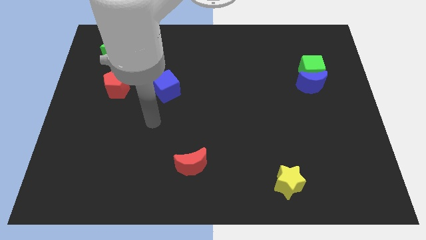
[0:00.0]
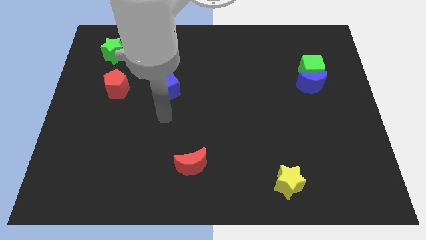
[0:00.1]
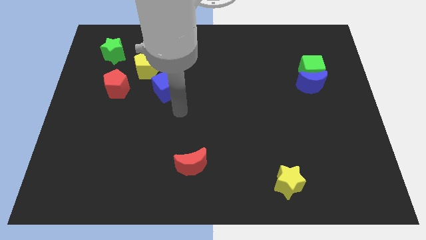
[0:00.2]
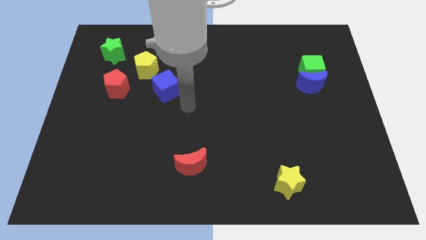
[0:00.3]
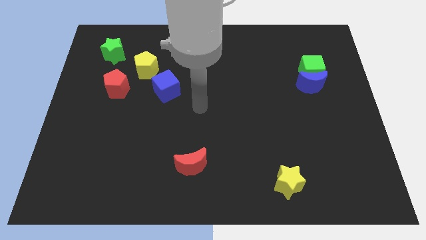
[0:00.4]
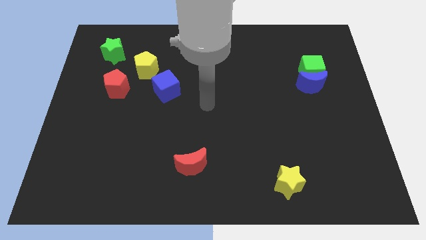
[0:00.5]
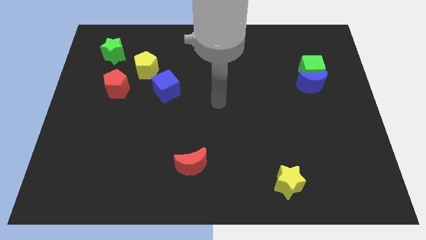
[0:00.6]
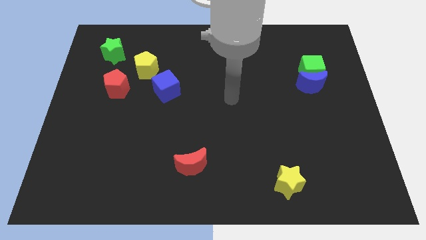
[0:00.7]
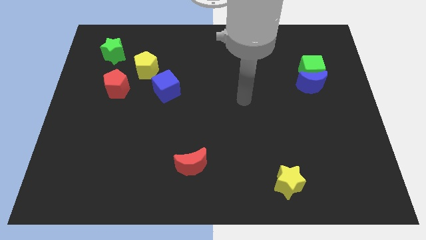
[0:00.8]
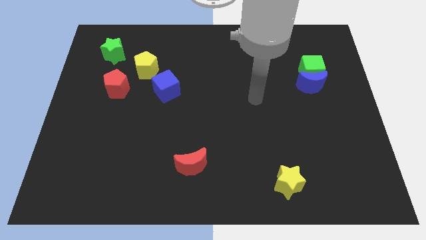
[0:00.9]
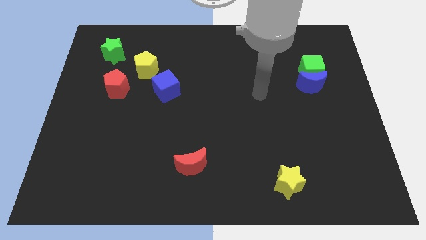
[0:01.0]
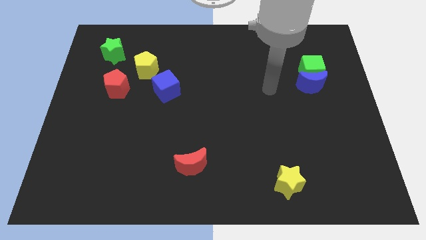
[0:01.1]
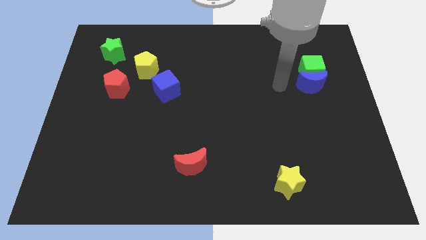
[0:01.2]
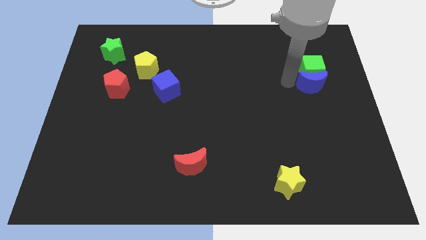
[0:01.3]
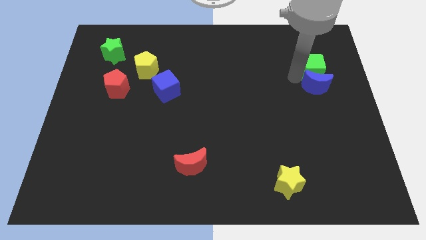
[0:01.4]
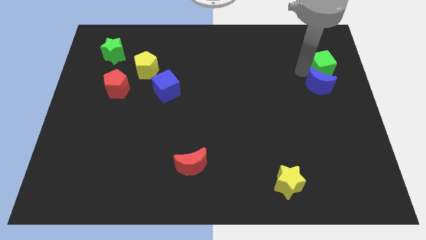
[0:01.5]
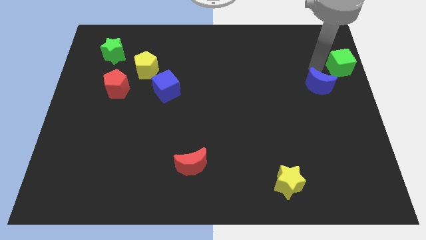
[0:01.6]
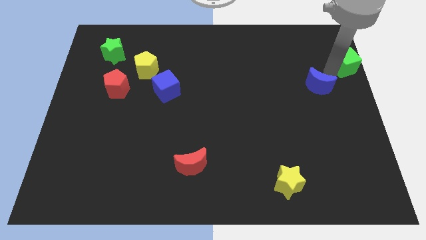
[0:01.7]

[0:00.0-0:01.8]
move the blue moon away from the green cube

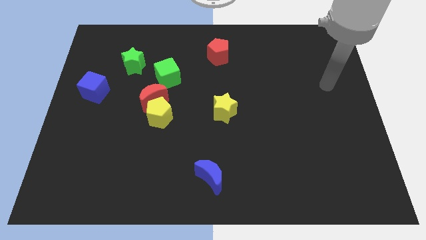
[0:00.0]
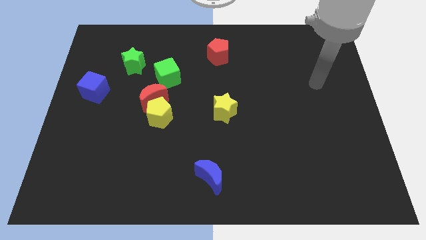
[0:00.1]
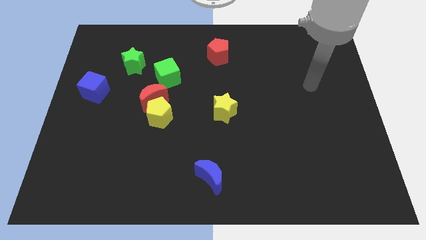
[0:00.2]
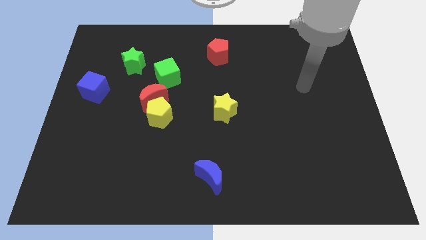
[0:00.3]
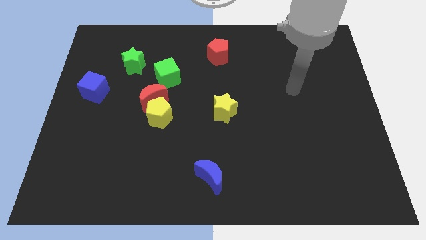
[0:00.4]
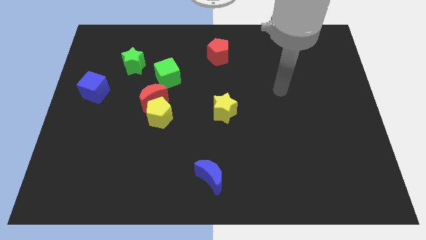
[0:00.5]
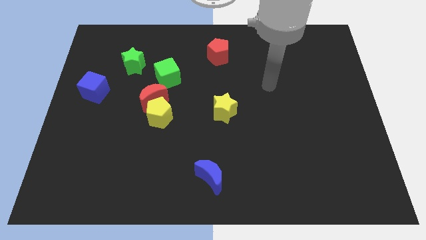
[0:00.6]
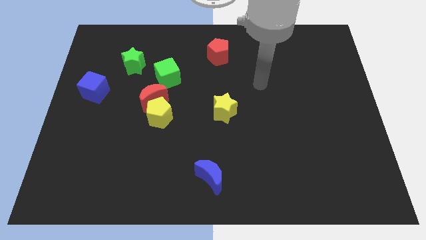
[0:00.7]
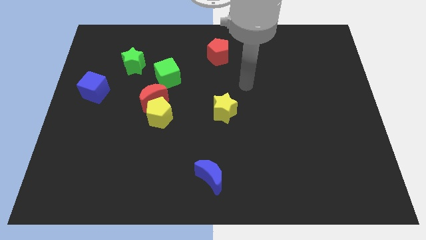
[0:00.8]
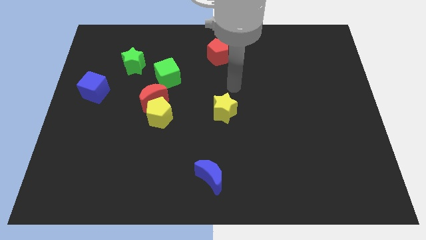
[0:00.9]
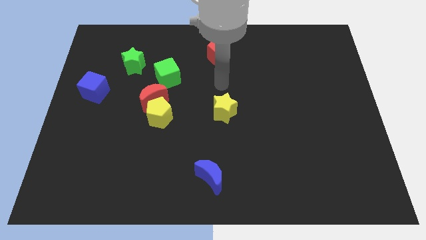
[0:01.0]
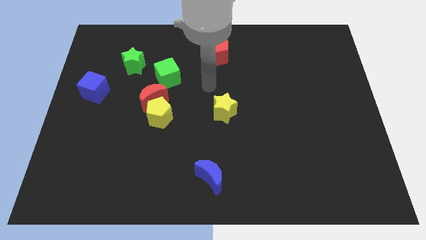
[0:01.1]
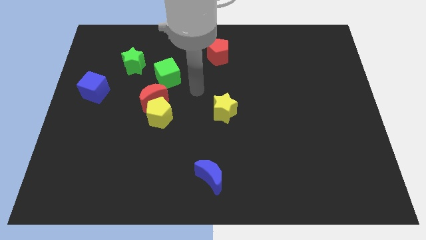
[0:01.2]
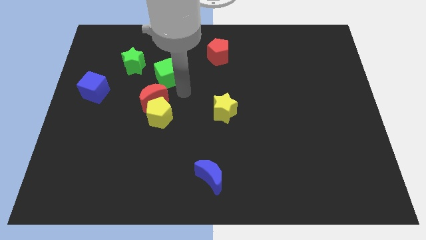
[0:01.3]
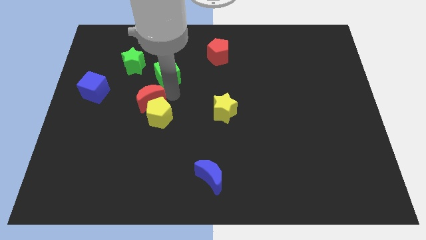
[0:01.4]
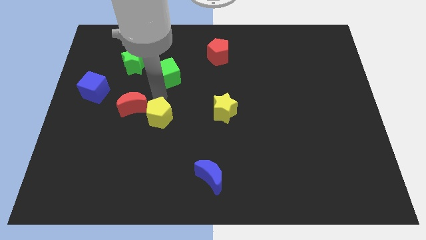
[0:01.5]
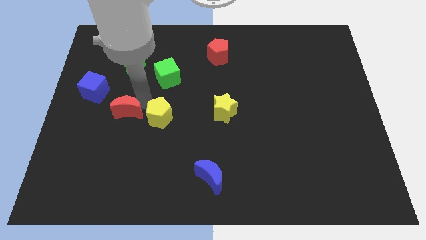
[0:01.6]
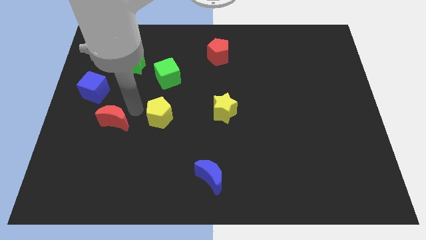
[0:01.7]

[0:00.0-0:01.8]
move the yellow pentagon away from the red moon

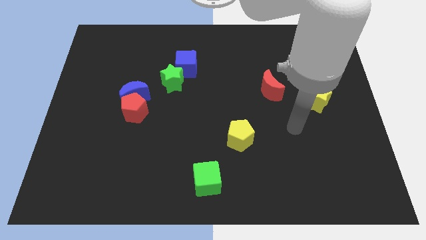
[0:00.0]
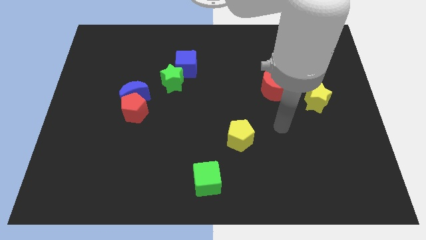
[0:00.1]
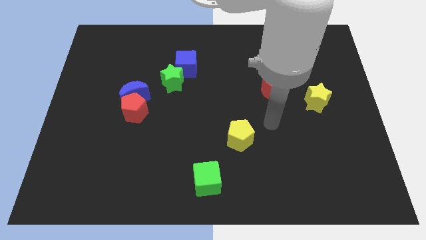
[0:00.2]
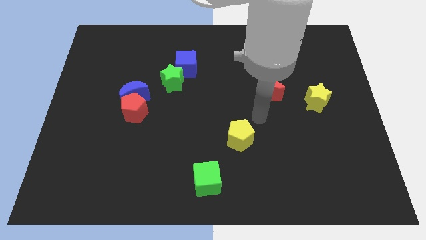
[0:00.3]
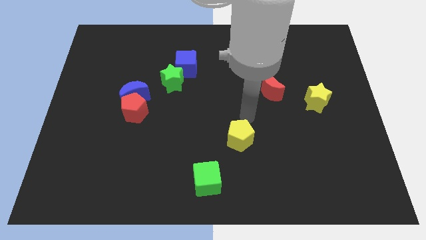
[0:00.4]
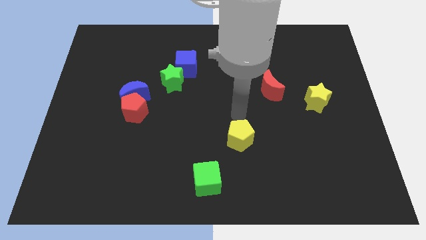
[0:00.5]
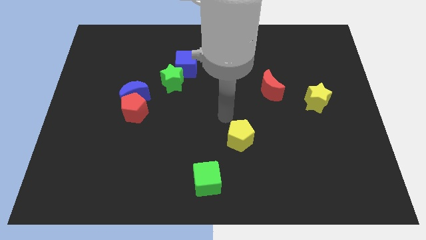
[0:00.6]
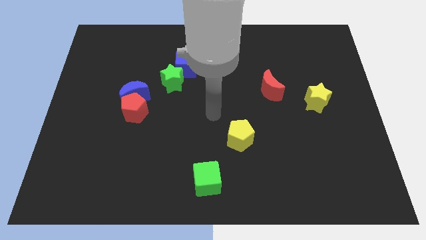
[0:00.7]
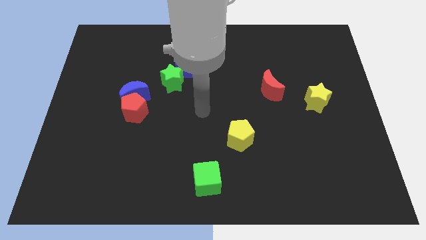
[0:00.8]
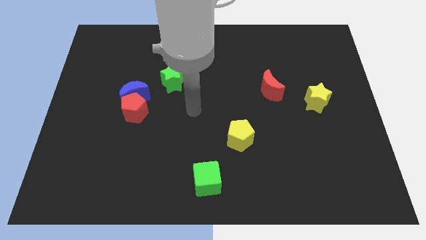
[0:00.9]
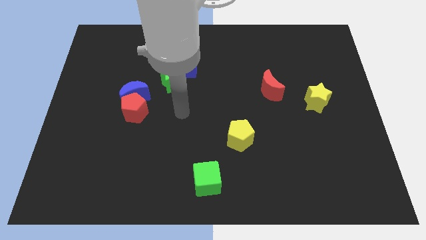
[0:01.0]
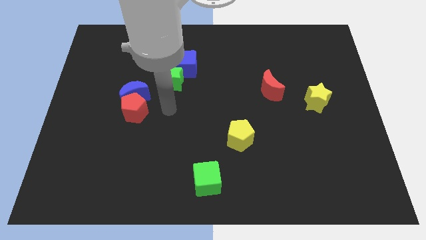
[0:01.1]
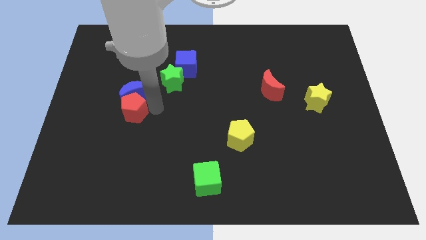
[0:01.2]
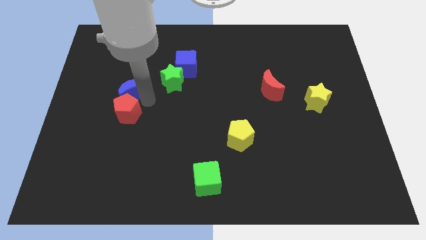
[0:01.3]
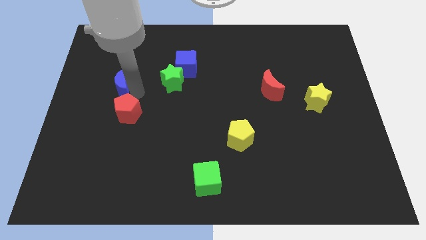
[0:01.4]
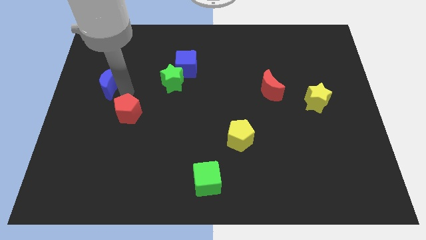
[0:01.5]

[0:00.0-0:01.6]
separate the red pentagon from the blue moon

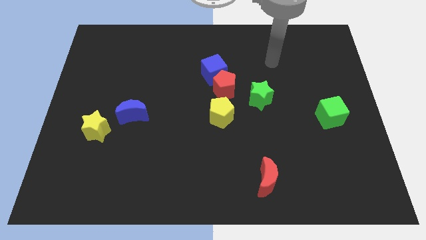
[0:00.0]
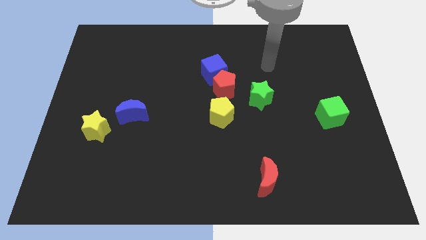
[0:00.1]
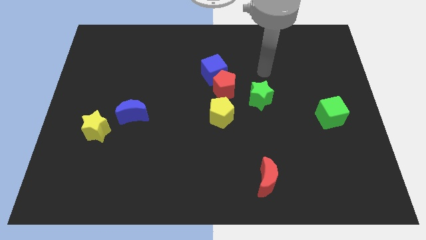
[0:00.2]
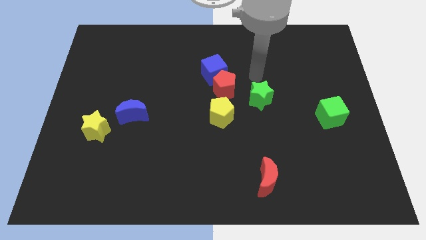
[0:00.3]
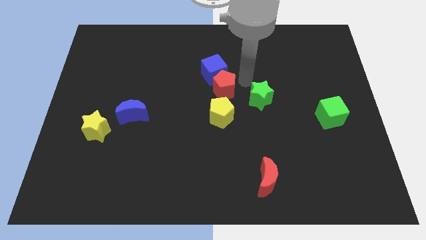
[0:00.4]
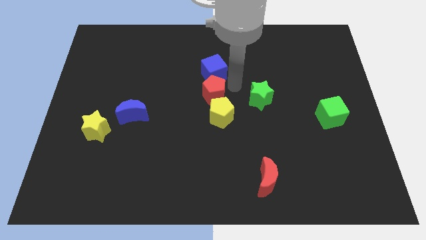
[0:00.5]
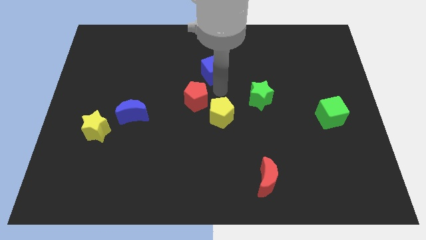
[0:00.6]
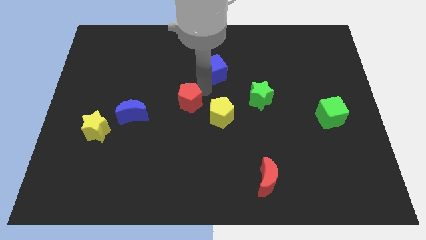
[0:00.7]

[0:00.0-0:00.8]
separate the blue cube from the red pentagon

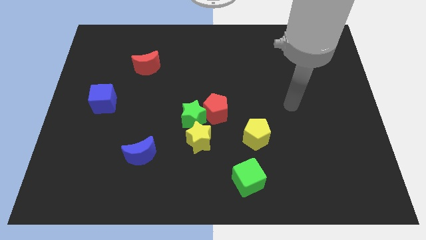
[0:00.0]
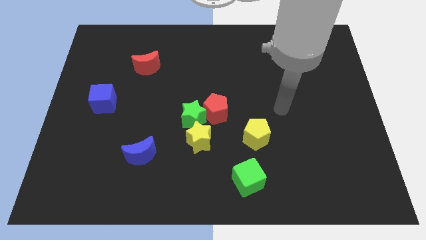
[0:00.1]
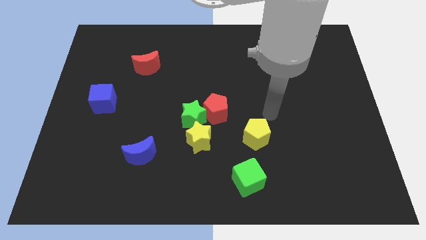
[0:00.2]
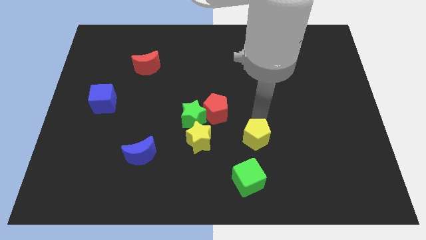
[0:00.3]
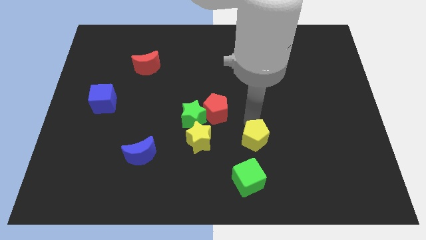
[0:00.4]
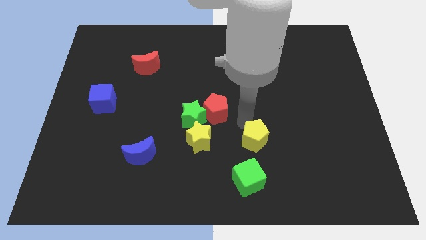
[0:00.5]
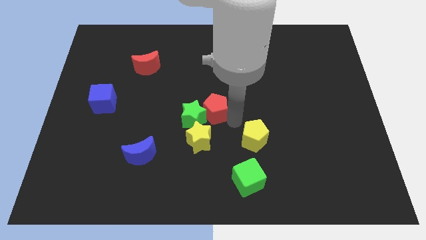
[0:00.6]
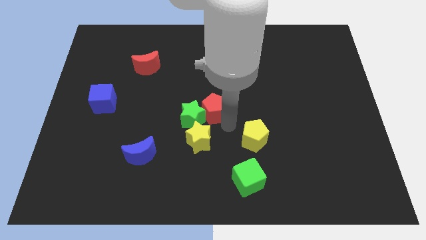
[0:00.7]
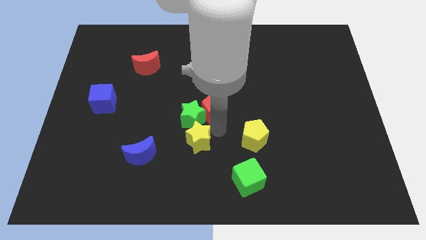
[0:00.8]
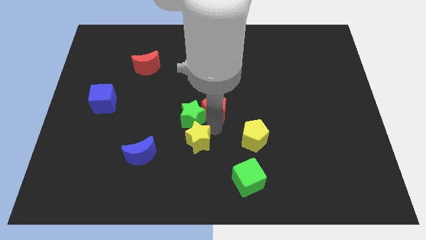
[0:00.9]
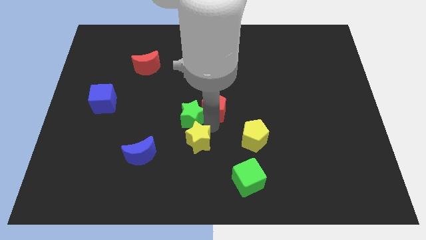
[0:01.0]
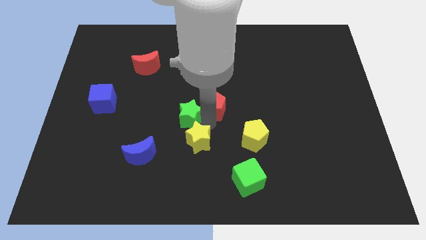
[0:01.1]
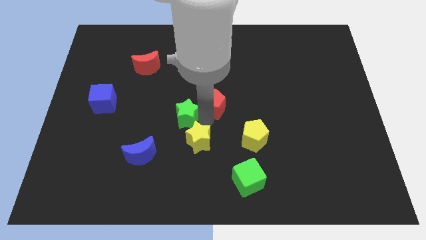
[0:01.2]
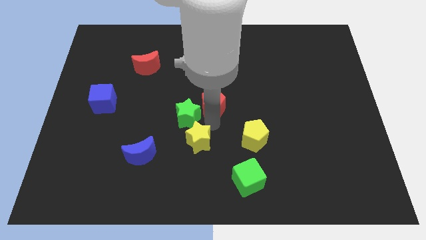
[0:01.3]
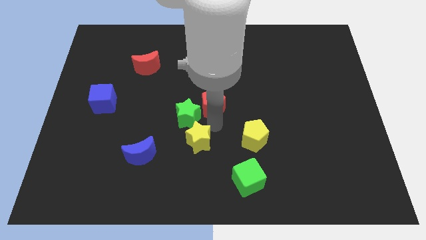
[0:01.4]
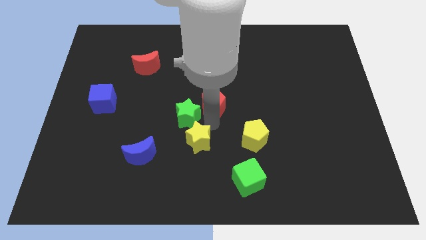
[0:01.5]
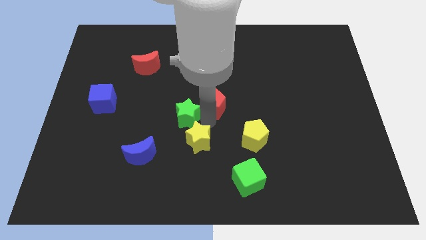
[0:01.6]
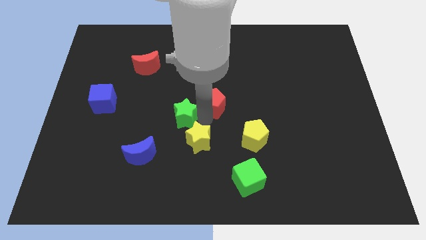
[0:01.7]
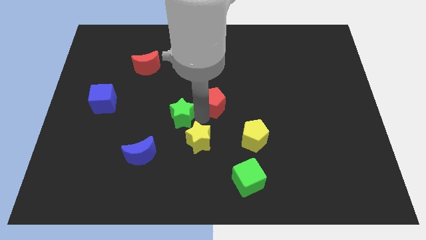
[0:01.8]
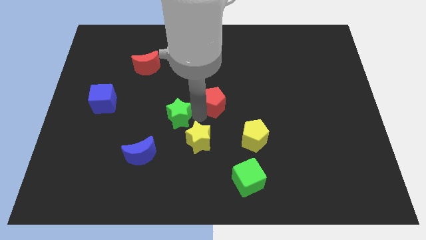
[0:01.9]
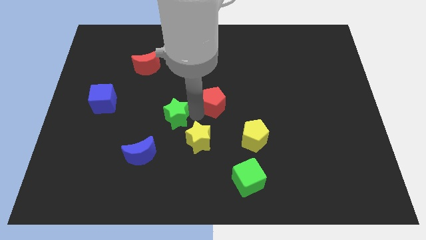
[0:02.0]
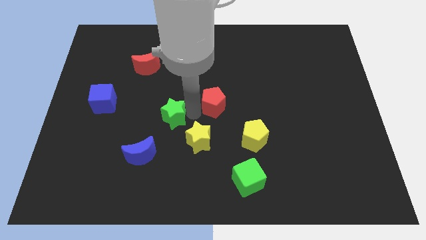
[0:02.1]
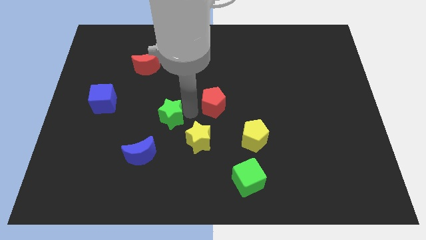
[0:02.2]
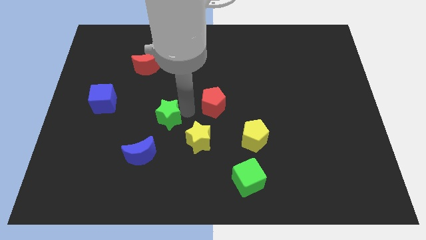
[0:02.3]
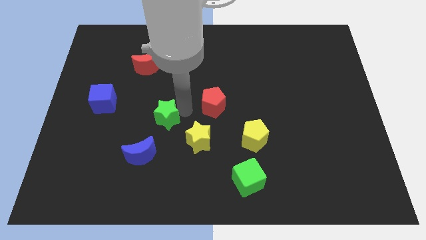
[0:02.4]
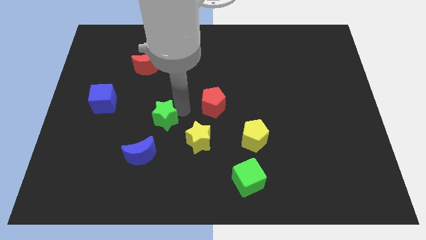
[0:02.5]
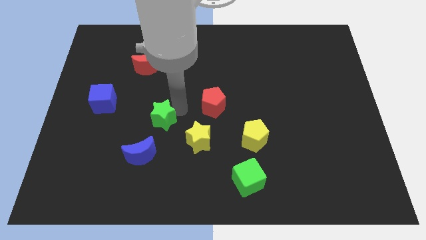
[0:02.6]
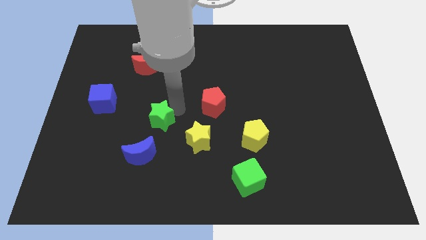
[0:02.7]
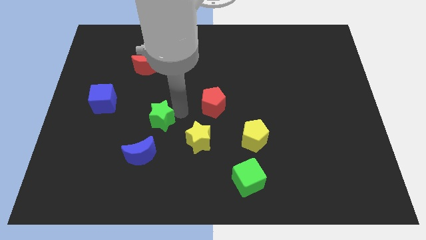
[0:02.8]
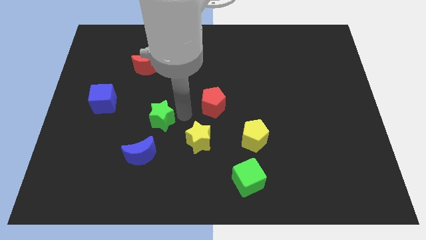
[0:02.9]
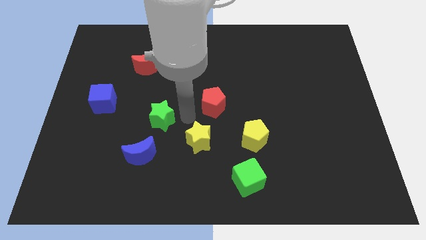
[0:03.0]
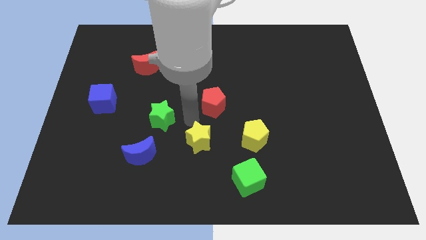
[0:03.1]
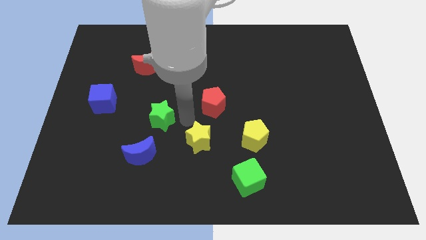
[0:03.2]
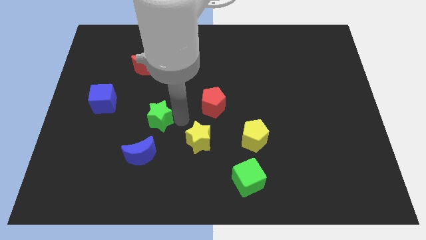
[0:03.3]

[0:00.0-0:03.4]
pull the green star apart from the red pentagon and yellow star
